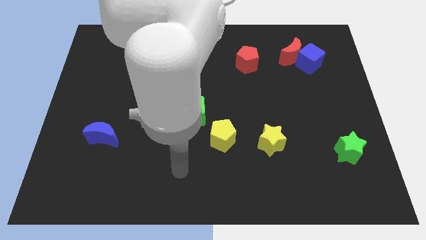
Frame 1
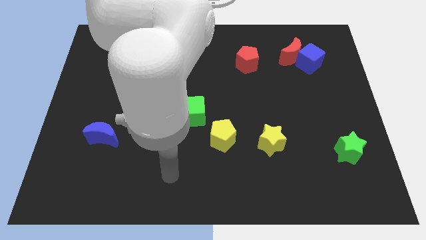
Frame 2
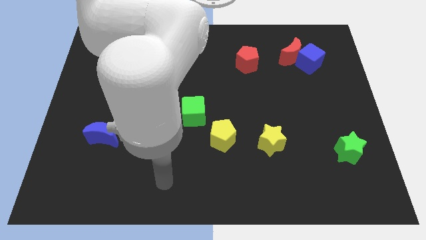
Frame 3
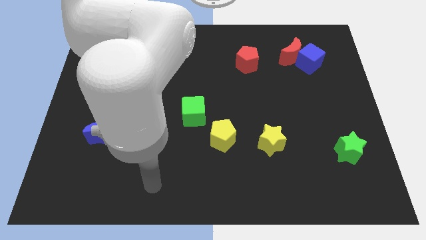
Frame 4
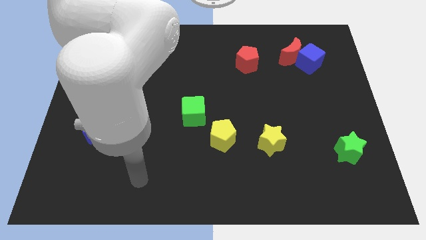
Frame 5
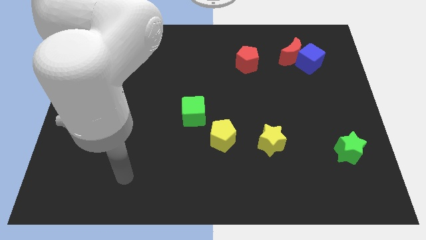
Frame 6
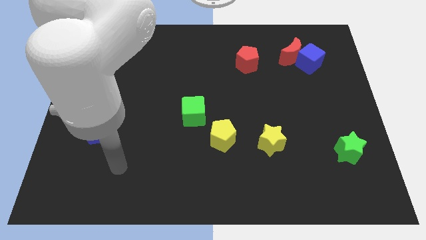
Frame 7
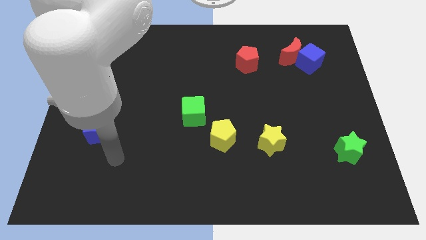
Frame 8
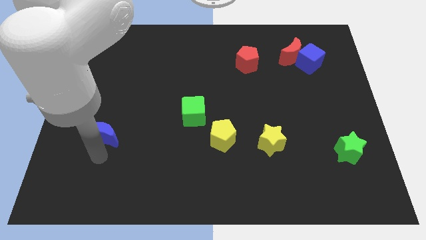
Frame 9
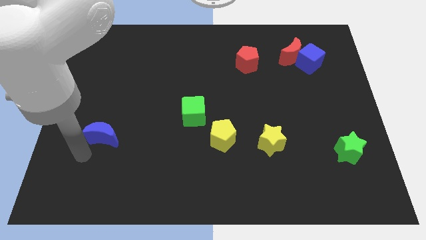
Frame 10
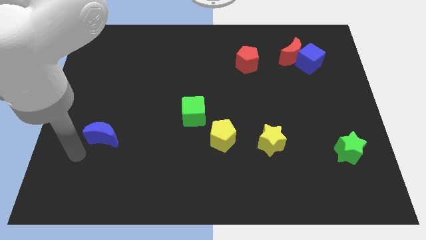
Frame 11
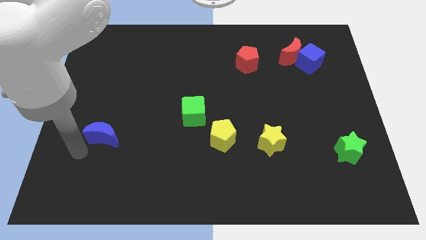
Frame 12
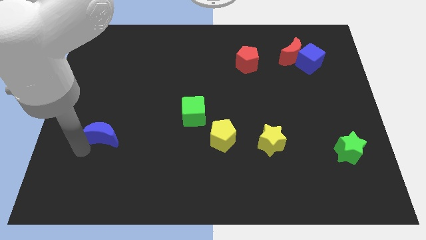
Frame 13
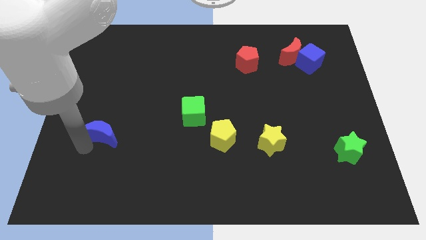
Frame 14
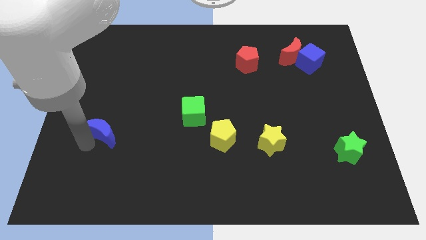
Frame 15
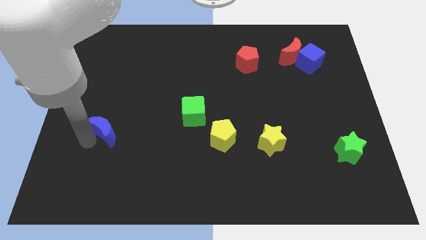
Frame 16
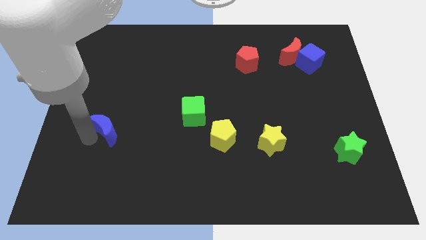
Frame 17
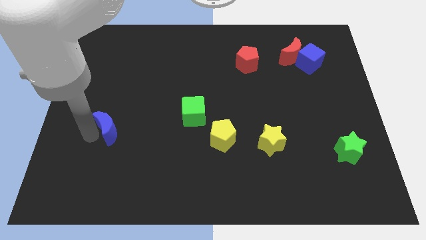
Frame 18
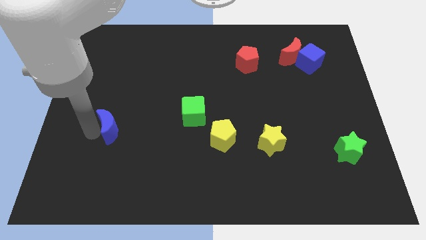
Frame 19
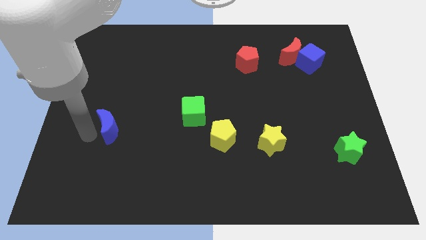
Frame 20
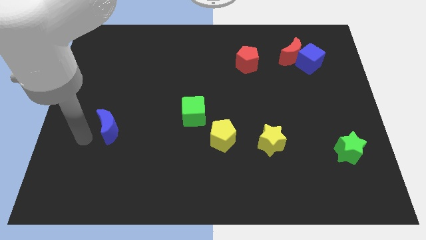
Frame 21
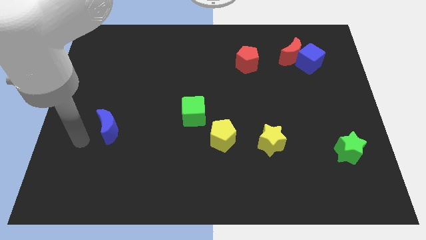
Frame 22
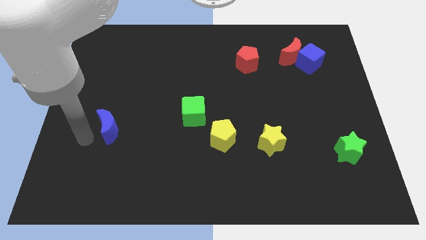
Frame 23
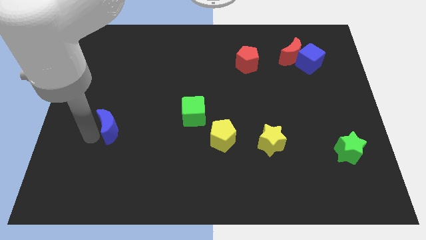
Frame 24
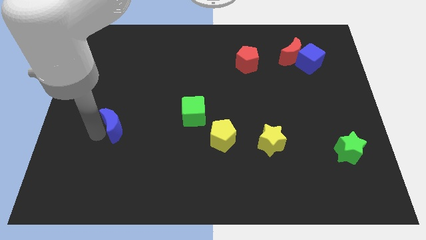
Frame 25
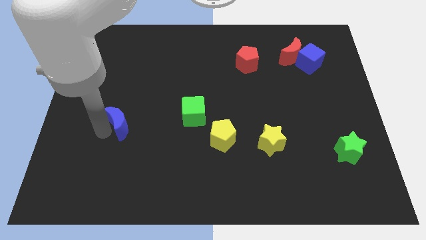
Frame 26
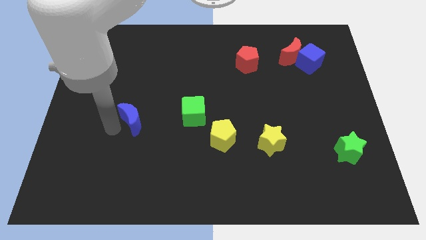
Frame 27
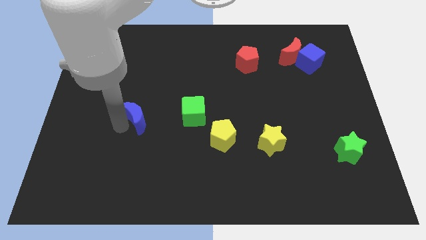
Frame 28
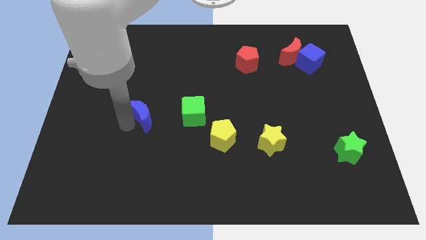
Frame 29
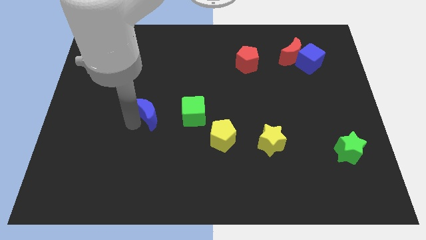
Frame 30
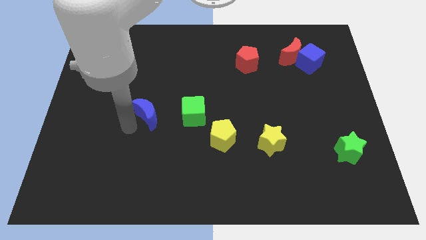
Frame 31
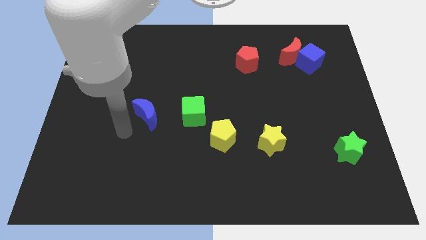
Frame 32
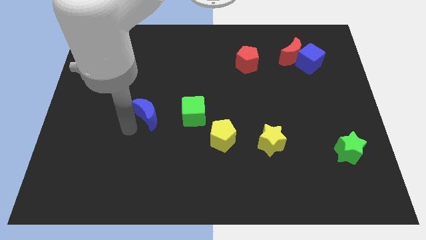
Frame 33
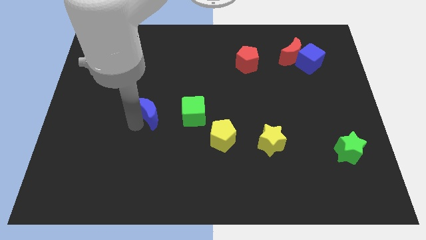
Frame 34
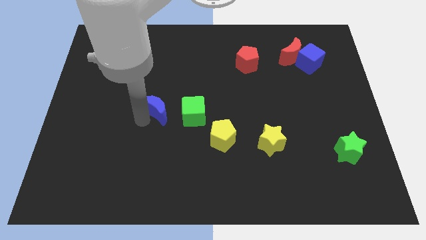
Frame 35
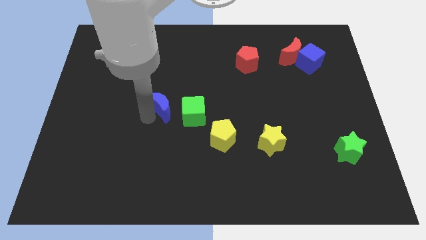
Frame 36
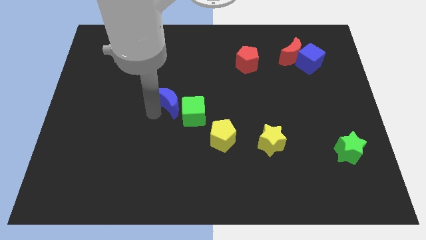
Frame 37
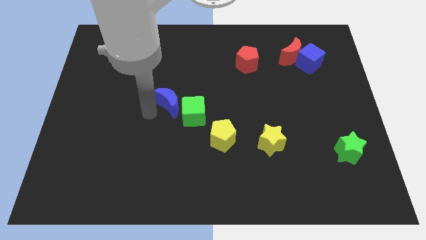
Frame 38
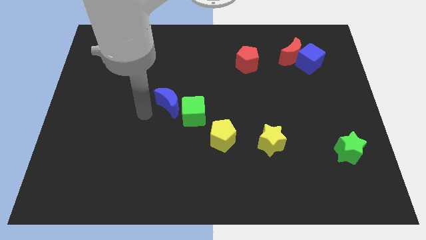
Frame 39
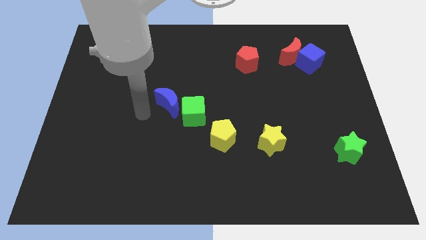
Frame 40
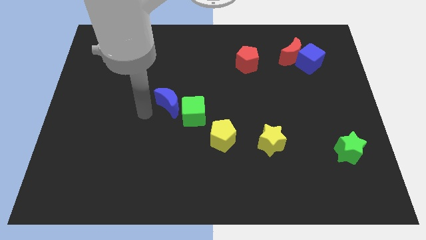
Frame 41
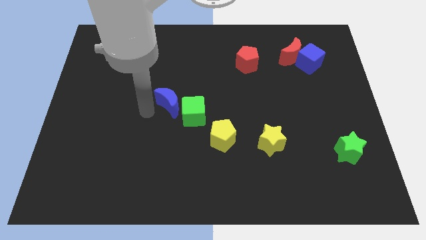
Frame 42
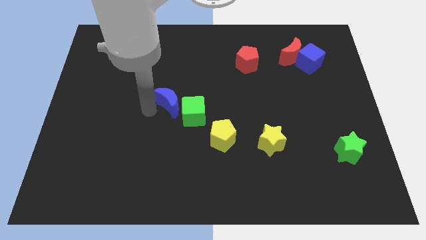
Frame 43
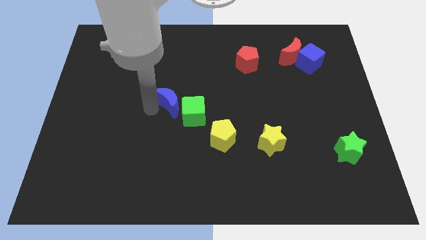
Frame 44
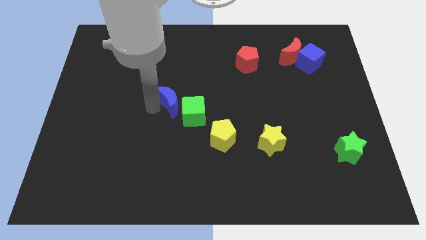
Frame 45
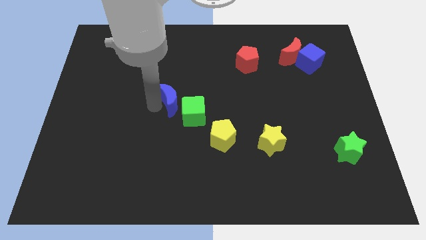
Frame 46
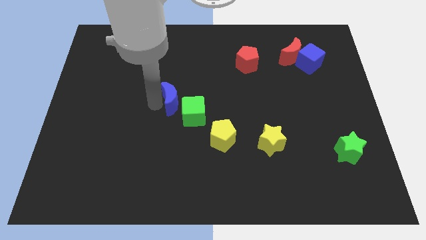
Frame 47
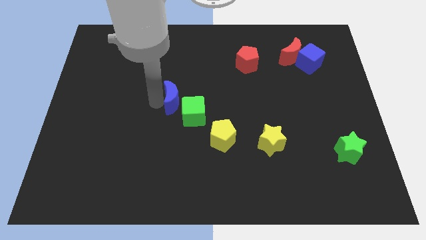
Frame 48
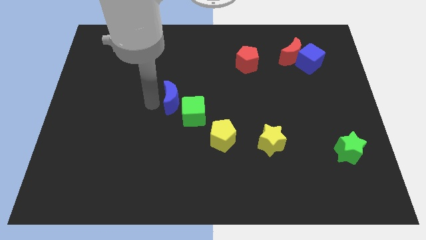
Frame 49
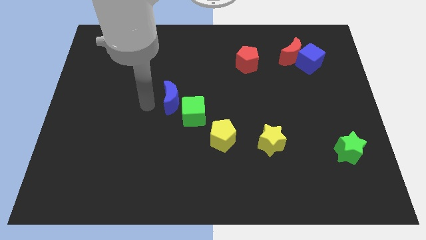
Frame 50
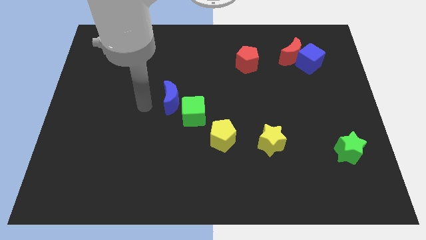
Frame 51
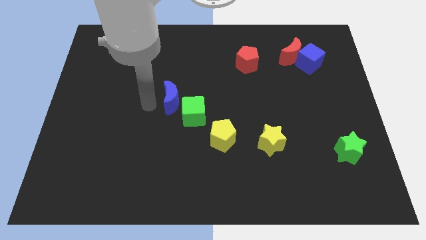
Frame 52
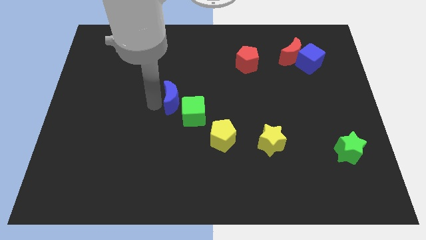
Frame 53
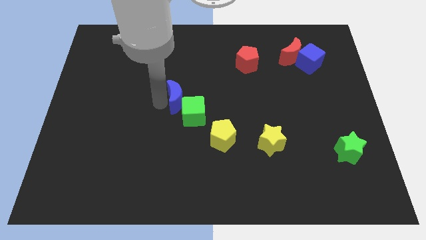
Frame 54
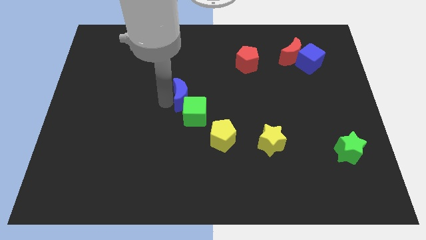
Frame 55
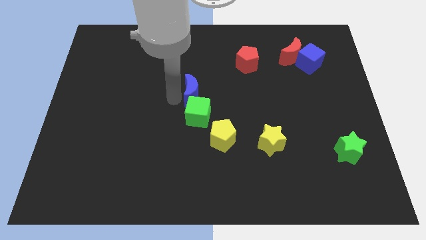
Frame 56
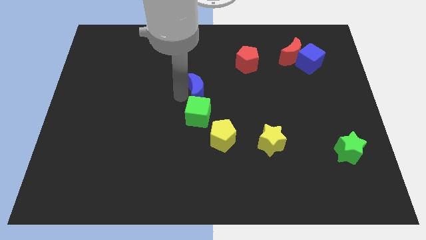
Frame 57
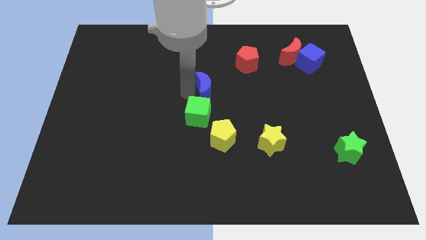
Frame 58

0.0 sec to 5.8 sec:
move the blue moon to the top right side of the green cube

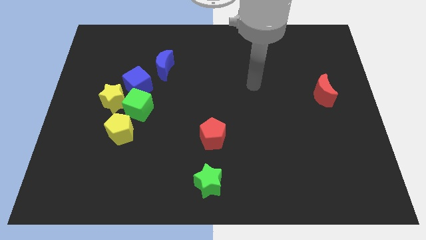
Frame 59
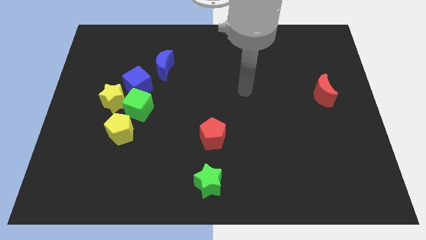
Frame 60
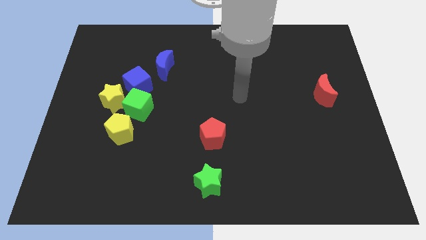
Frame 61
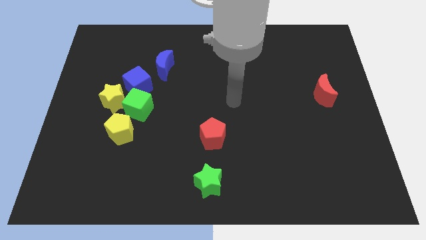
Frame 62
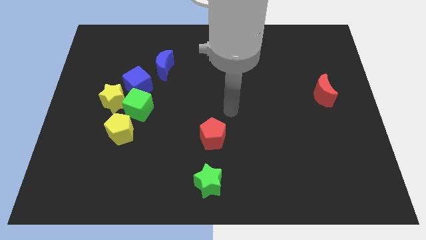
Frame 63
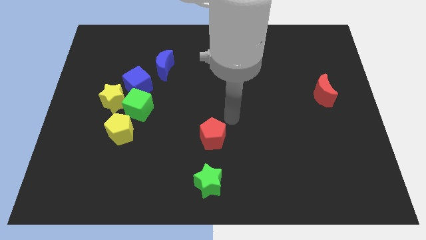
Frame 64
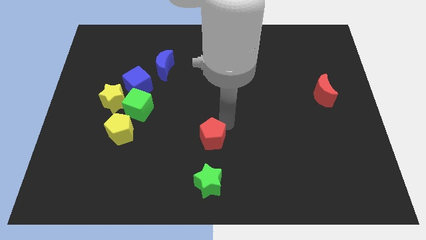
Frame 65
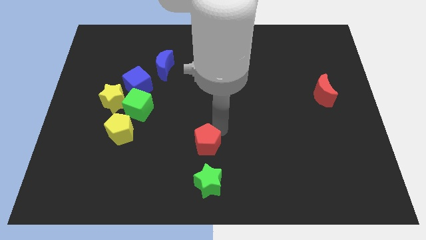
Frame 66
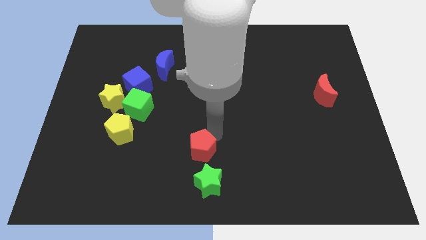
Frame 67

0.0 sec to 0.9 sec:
push the red pentagon to the top left of the green star
